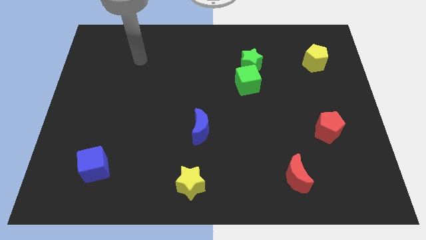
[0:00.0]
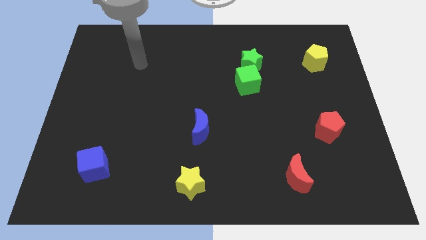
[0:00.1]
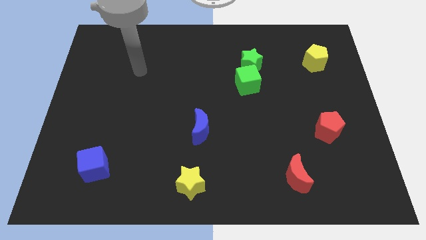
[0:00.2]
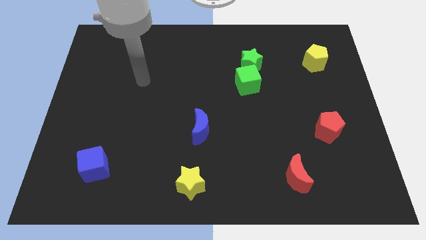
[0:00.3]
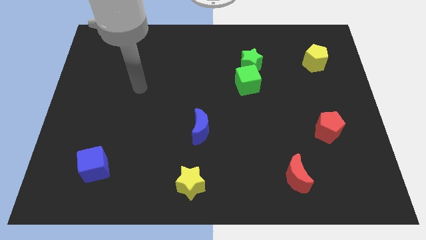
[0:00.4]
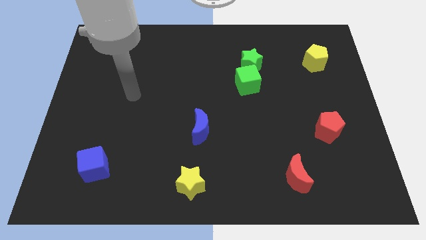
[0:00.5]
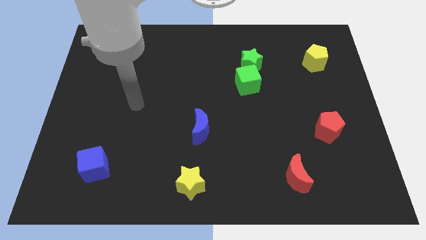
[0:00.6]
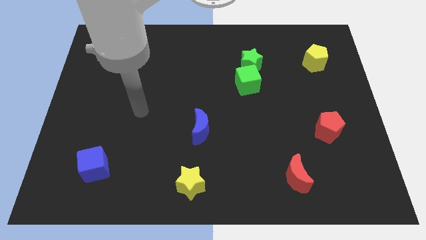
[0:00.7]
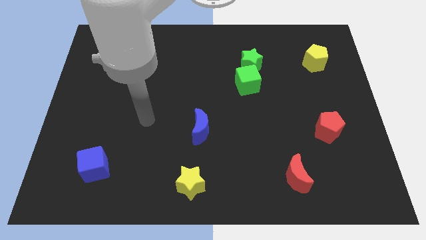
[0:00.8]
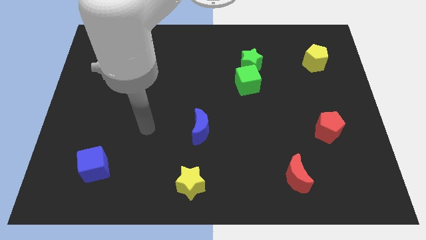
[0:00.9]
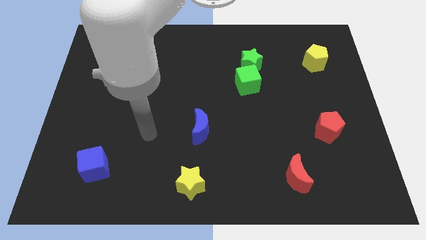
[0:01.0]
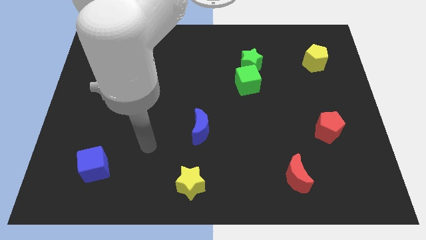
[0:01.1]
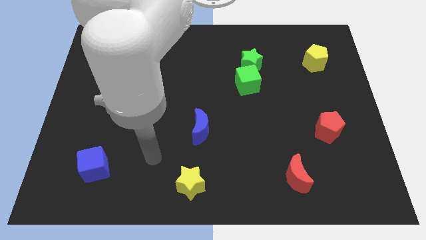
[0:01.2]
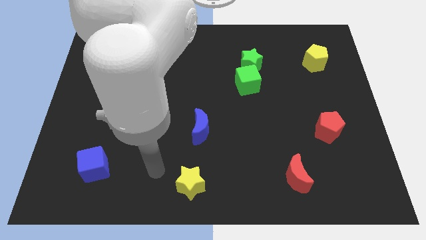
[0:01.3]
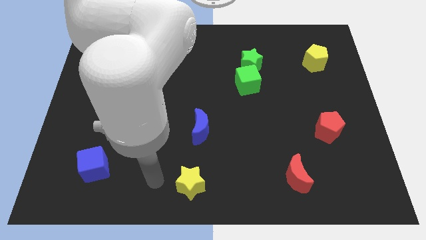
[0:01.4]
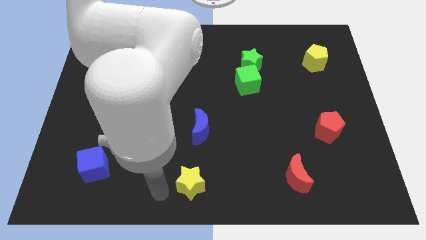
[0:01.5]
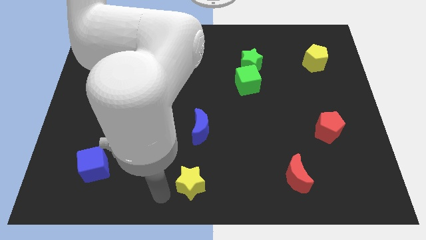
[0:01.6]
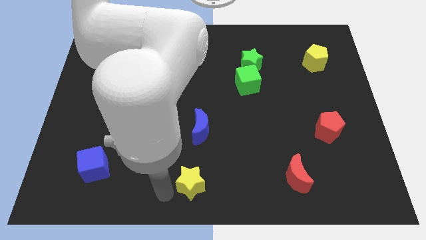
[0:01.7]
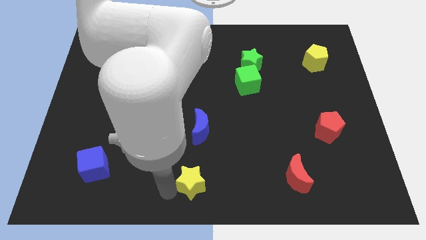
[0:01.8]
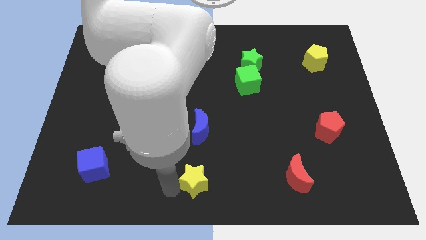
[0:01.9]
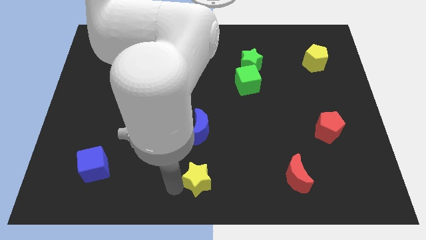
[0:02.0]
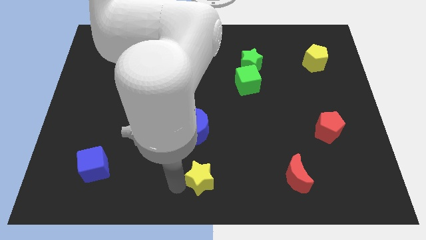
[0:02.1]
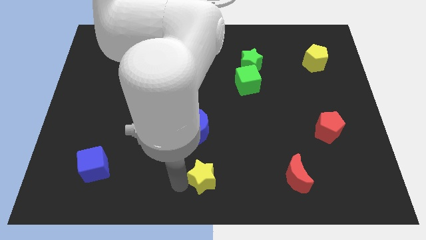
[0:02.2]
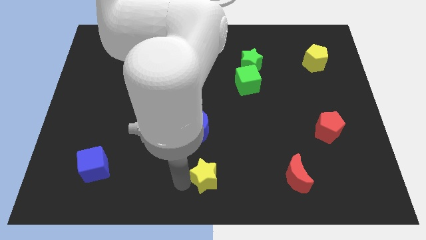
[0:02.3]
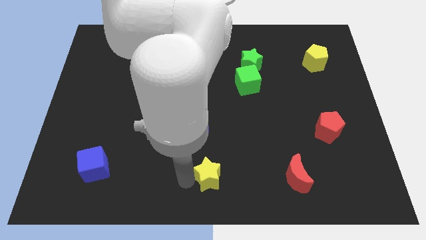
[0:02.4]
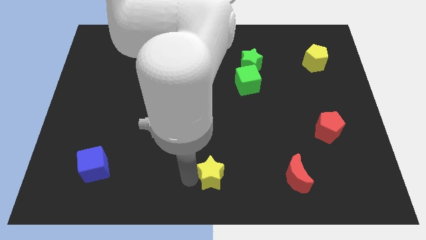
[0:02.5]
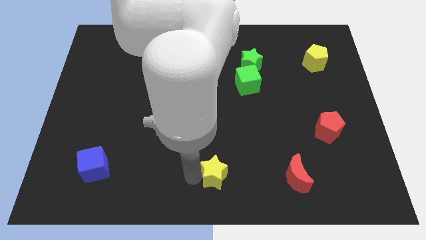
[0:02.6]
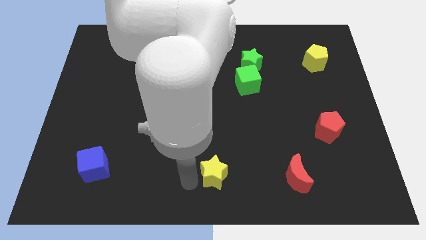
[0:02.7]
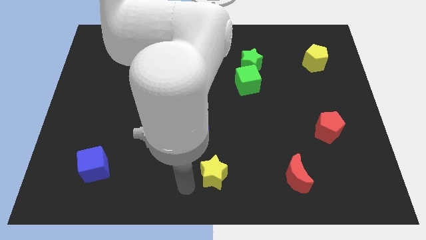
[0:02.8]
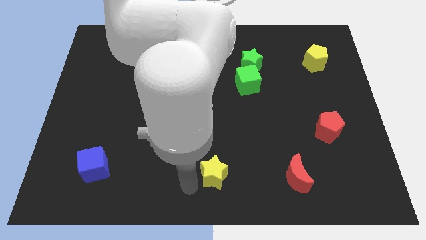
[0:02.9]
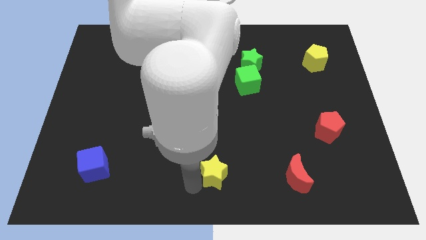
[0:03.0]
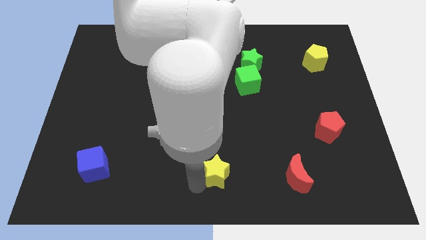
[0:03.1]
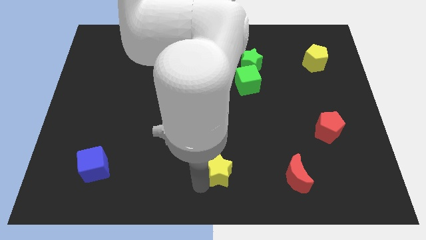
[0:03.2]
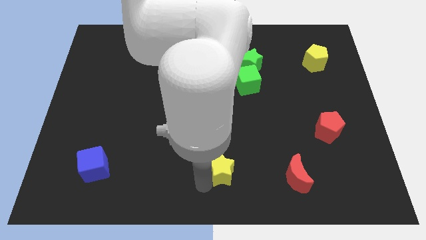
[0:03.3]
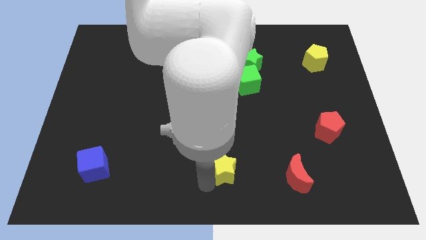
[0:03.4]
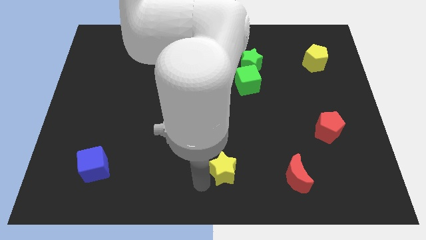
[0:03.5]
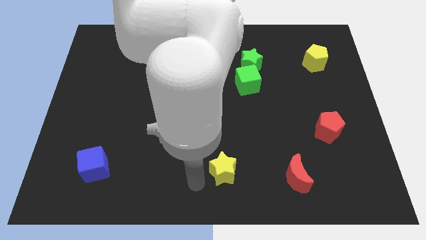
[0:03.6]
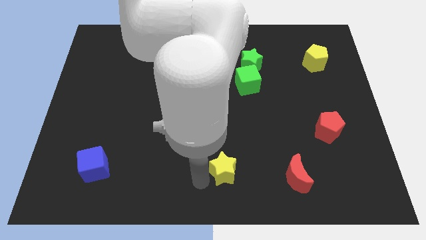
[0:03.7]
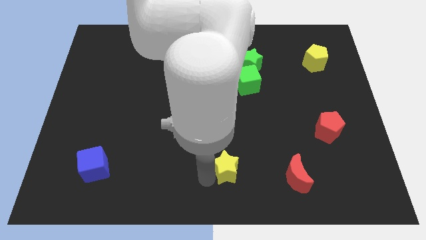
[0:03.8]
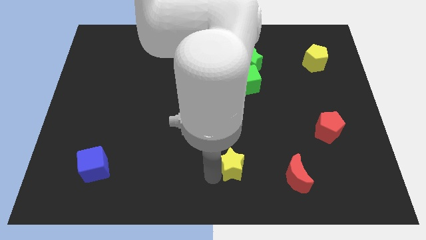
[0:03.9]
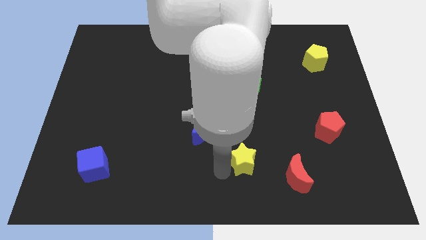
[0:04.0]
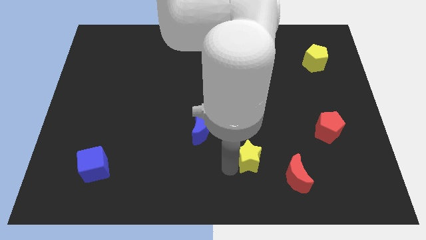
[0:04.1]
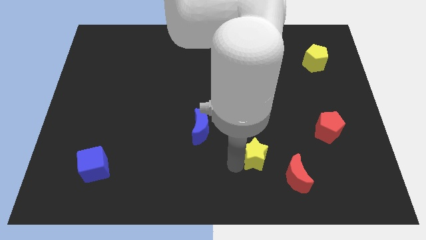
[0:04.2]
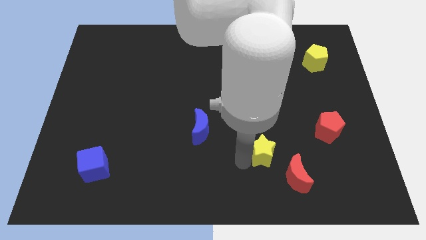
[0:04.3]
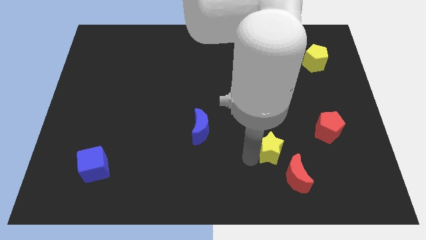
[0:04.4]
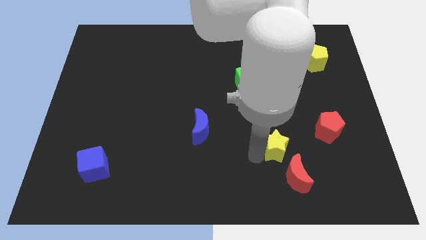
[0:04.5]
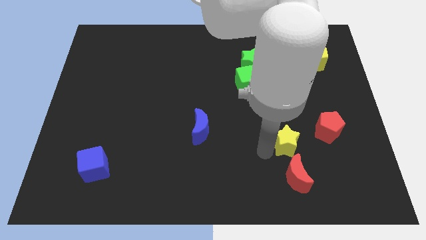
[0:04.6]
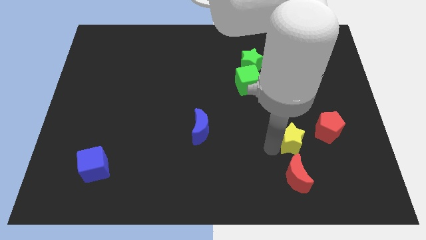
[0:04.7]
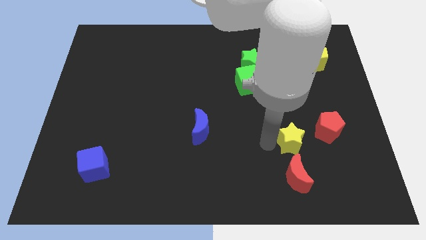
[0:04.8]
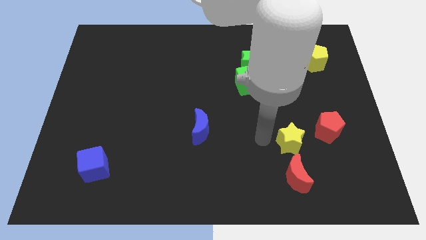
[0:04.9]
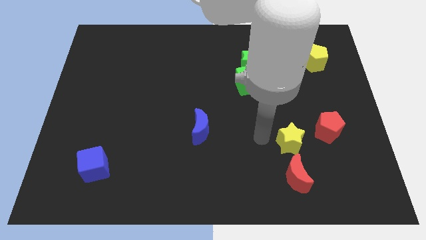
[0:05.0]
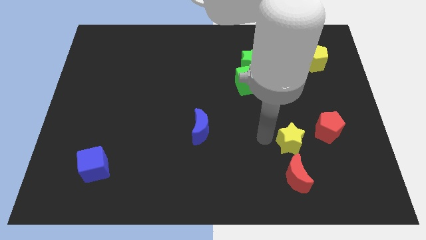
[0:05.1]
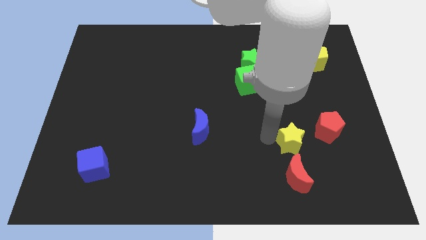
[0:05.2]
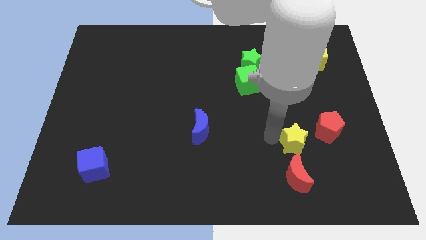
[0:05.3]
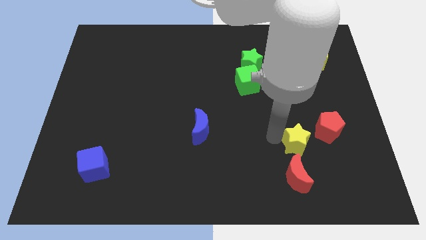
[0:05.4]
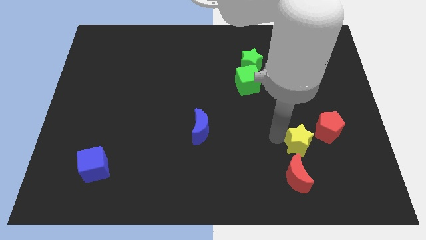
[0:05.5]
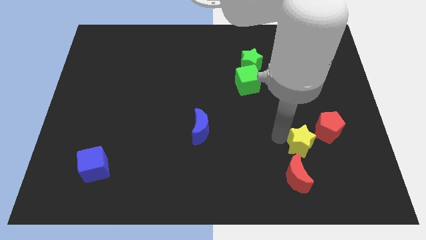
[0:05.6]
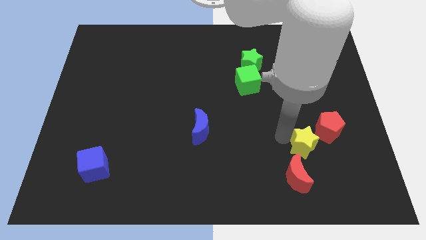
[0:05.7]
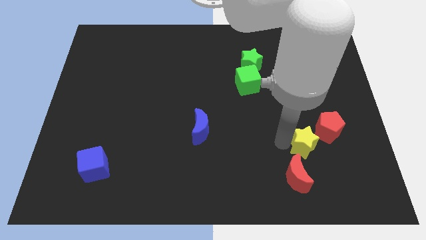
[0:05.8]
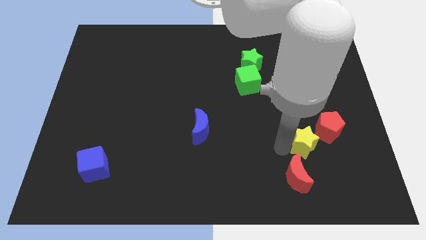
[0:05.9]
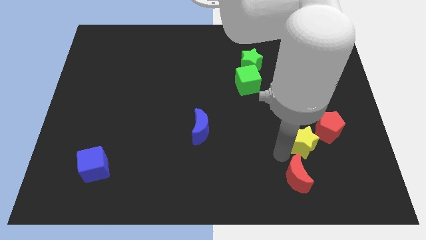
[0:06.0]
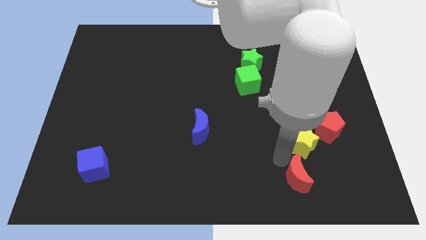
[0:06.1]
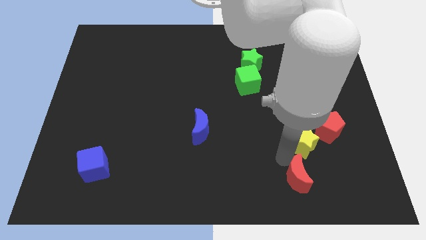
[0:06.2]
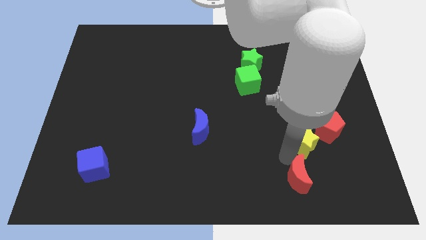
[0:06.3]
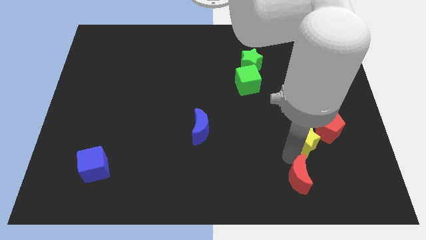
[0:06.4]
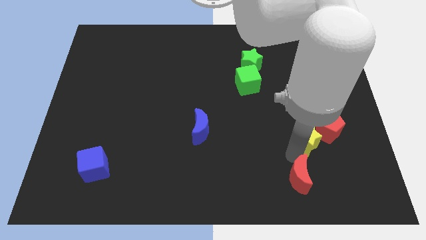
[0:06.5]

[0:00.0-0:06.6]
slide the yellow star next to the red pentagon

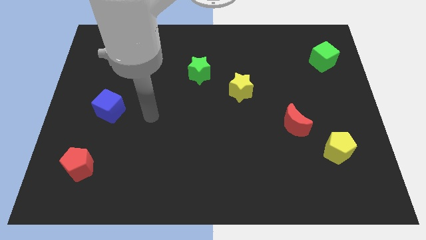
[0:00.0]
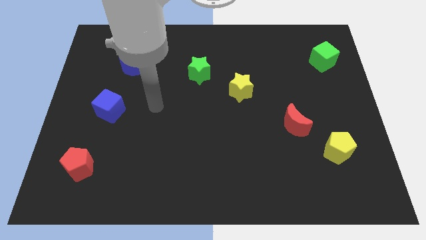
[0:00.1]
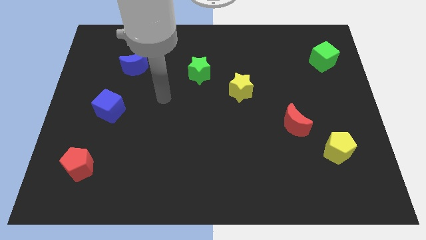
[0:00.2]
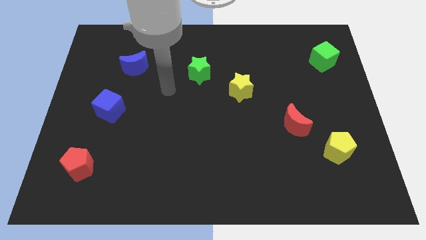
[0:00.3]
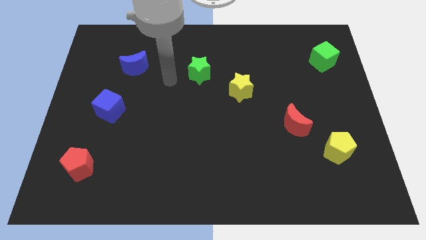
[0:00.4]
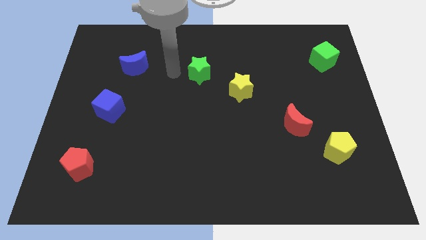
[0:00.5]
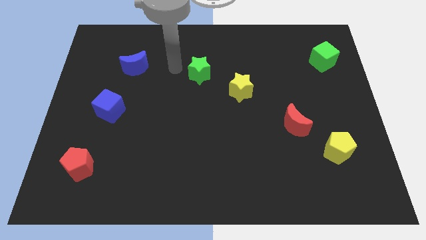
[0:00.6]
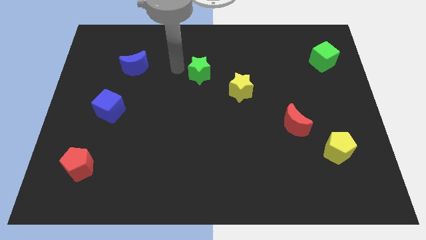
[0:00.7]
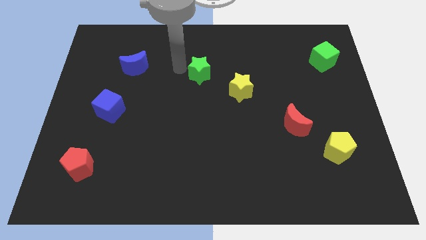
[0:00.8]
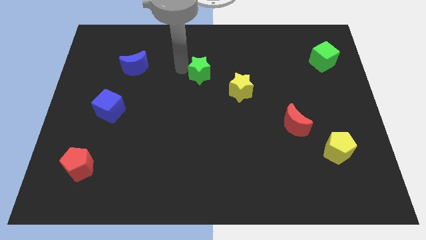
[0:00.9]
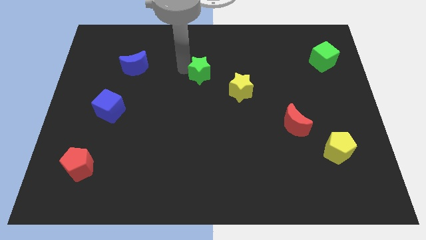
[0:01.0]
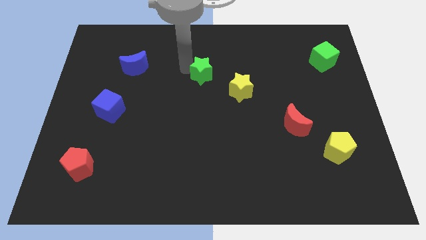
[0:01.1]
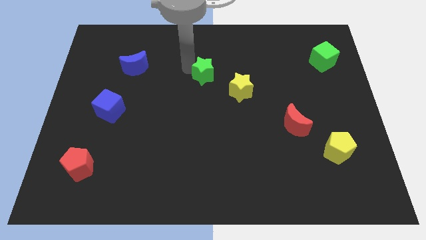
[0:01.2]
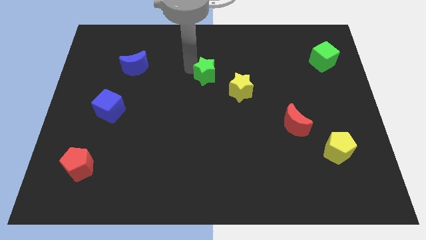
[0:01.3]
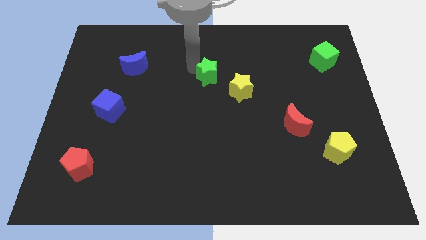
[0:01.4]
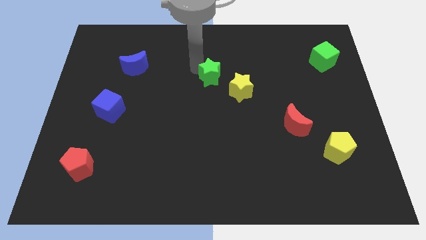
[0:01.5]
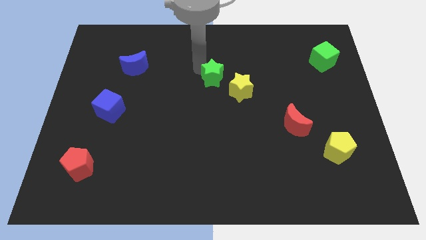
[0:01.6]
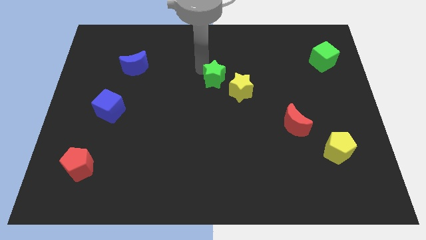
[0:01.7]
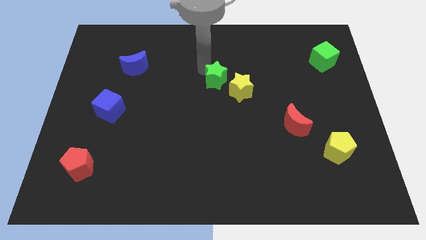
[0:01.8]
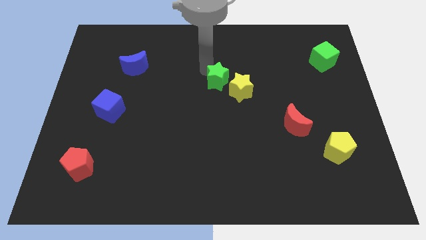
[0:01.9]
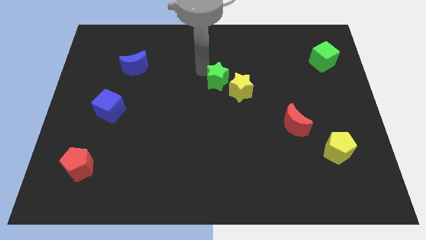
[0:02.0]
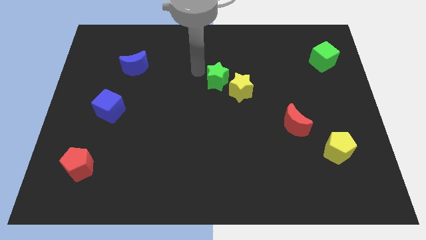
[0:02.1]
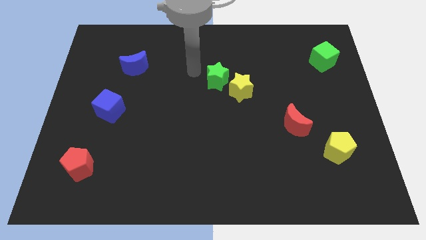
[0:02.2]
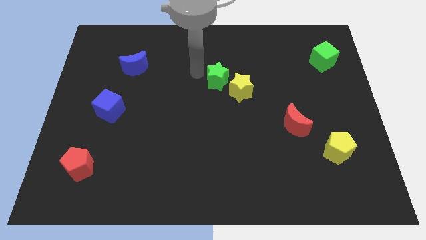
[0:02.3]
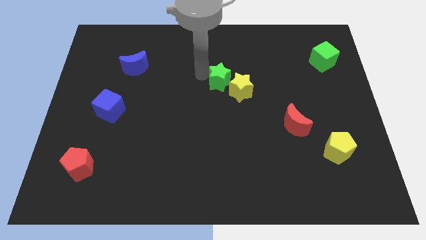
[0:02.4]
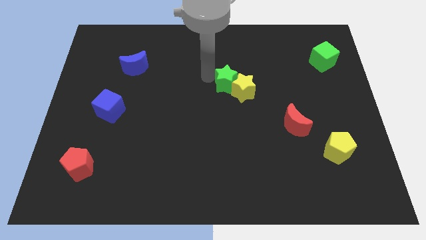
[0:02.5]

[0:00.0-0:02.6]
move the green star next to the yellow star
